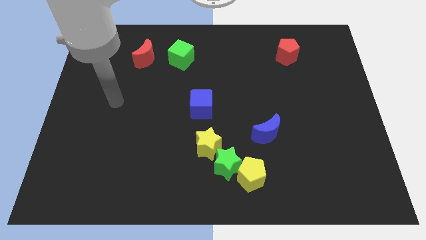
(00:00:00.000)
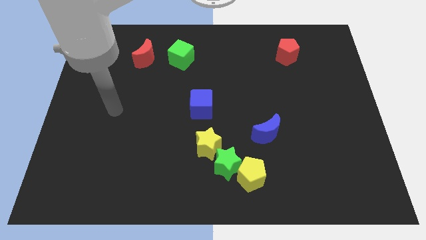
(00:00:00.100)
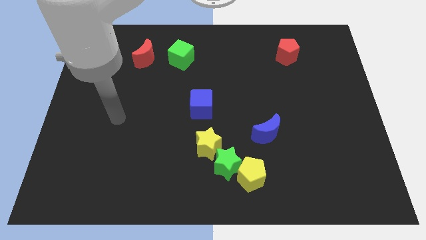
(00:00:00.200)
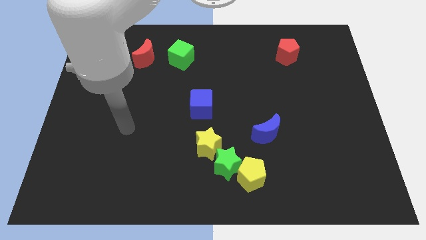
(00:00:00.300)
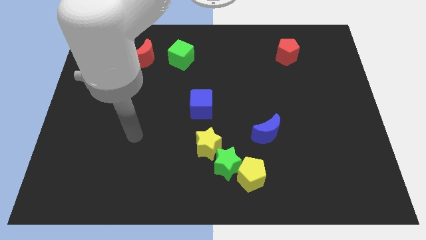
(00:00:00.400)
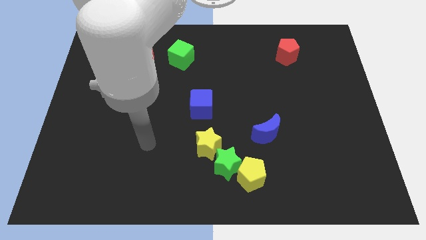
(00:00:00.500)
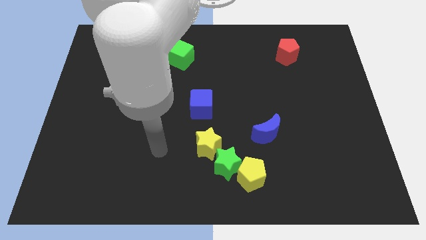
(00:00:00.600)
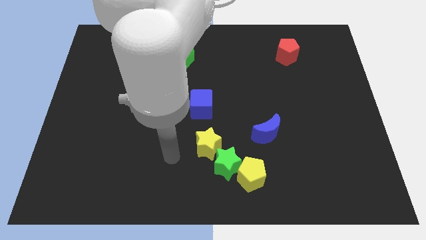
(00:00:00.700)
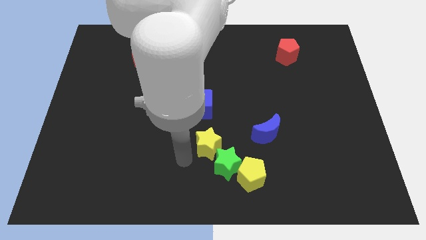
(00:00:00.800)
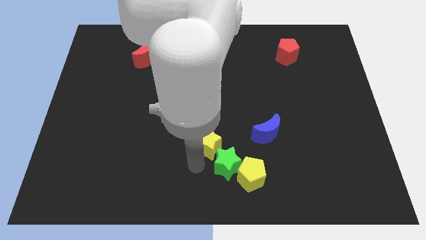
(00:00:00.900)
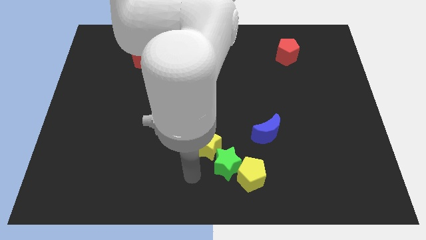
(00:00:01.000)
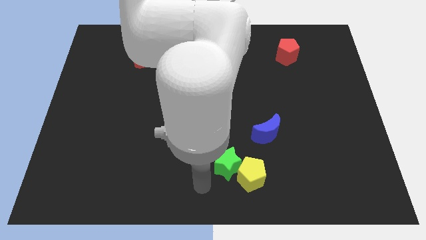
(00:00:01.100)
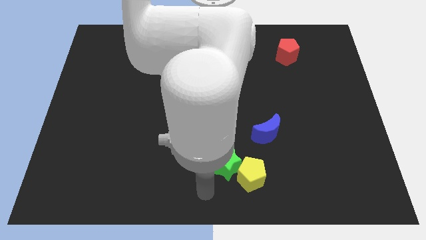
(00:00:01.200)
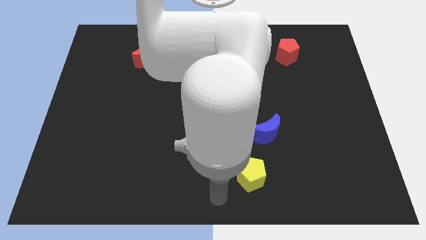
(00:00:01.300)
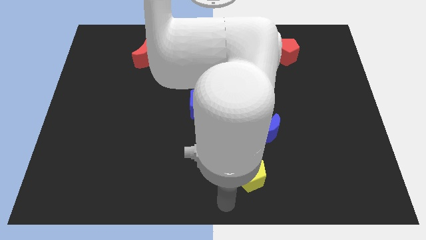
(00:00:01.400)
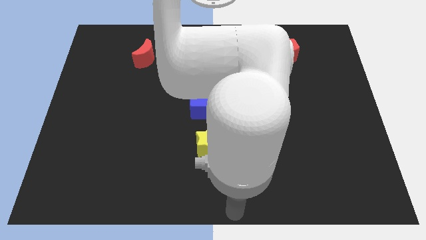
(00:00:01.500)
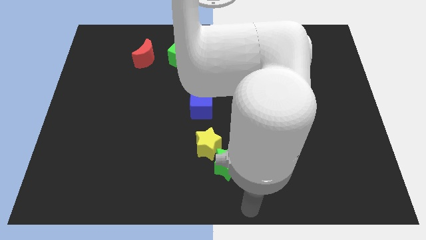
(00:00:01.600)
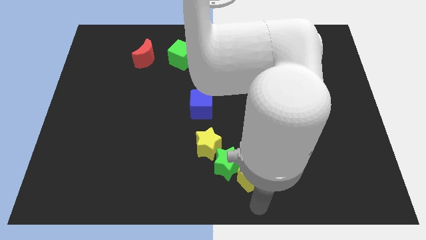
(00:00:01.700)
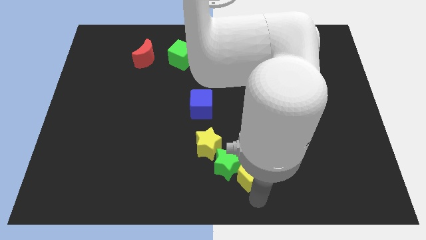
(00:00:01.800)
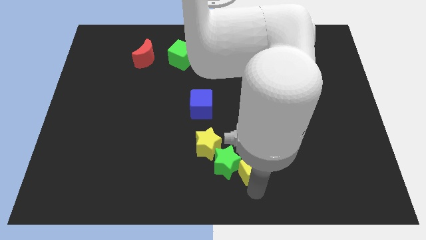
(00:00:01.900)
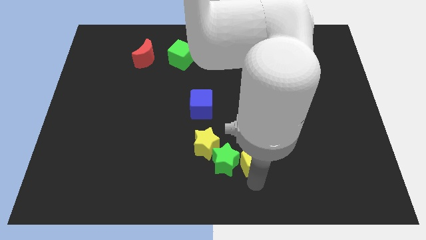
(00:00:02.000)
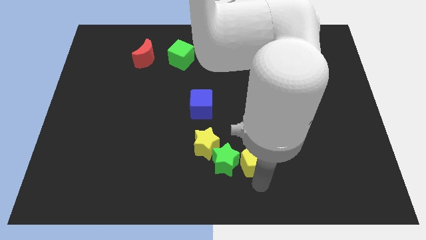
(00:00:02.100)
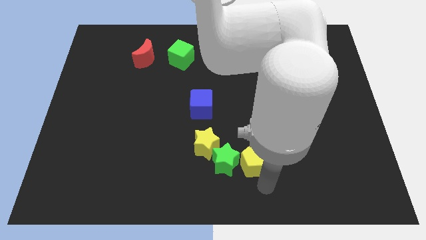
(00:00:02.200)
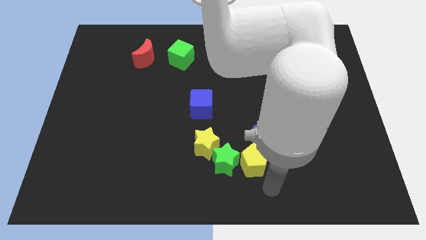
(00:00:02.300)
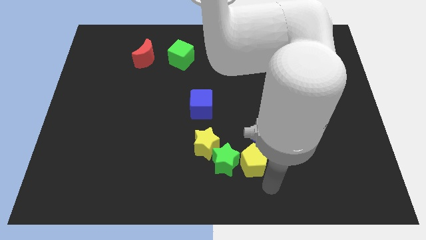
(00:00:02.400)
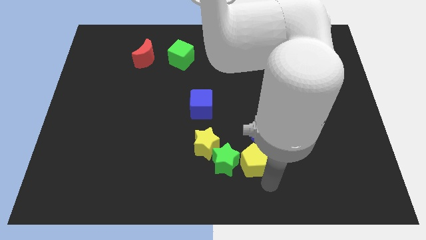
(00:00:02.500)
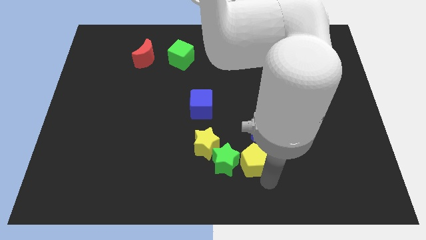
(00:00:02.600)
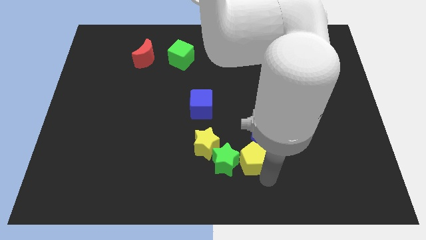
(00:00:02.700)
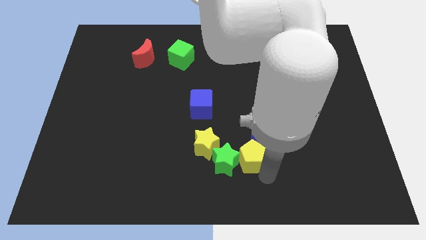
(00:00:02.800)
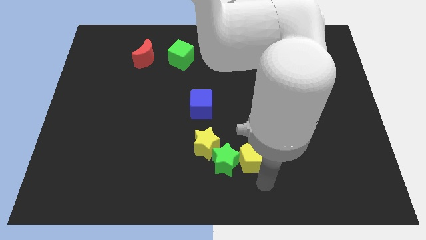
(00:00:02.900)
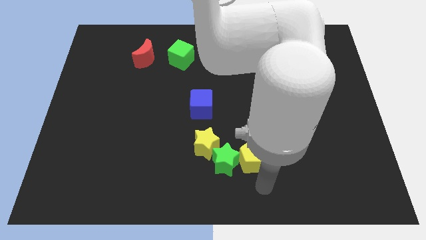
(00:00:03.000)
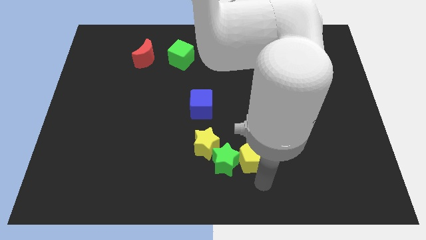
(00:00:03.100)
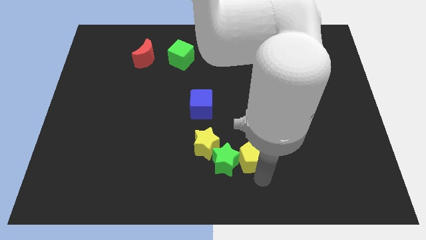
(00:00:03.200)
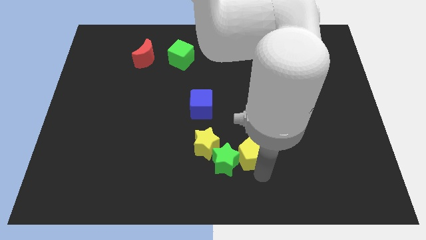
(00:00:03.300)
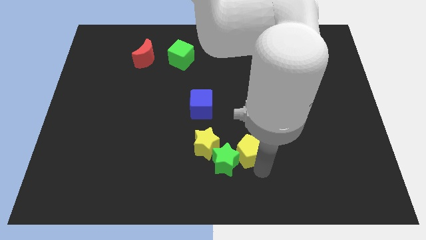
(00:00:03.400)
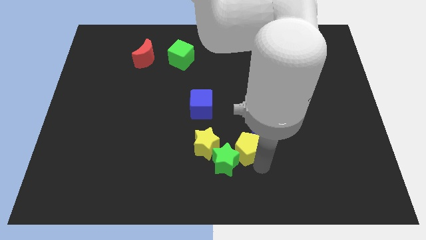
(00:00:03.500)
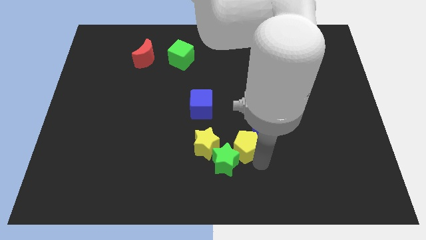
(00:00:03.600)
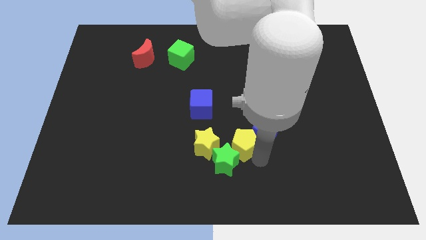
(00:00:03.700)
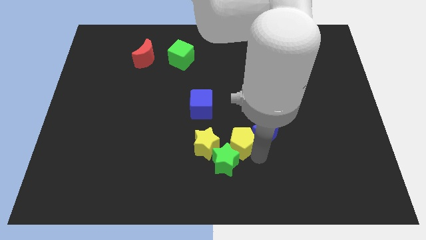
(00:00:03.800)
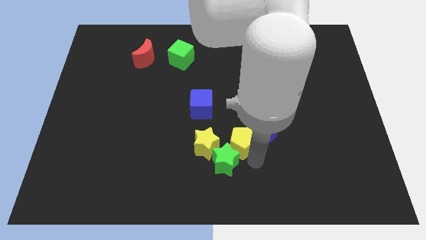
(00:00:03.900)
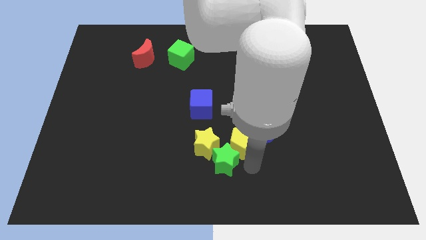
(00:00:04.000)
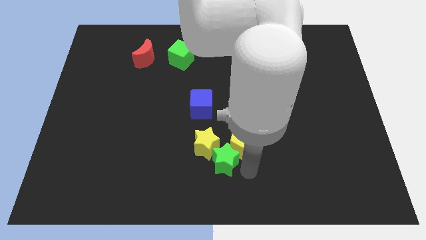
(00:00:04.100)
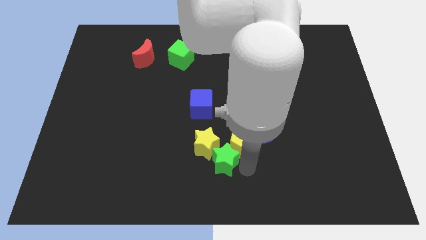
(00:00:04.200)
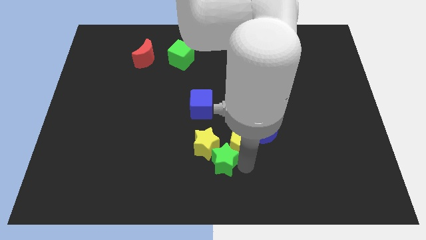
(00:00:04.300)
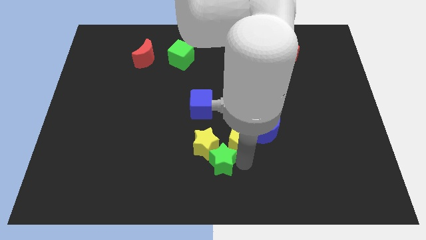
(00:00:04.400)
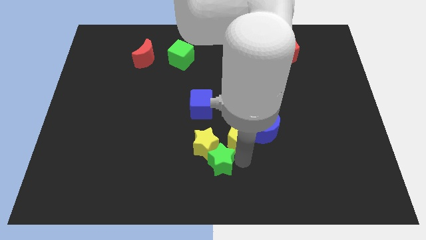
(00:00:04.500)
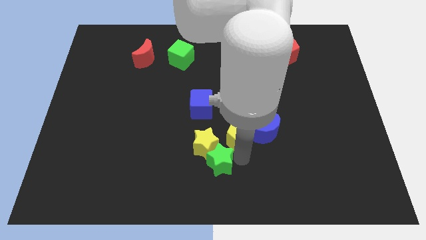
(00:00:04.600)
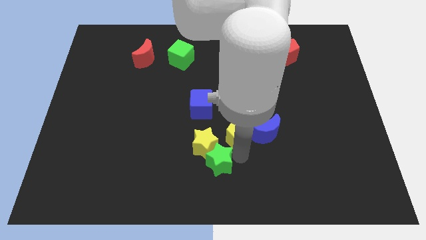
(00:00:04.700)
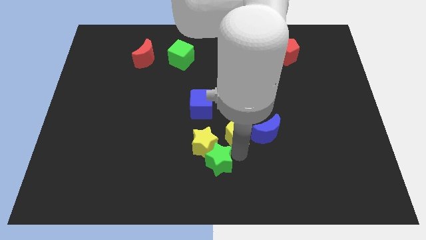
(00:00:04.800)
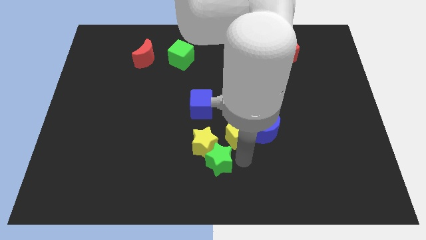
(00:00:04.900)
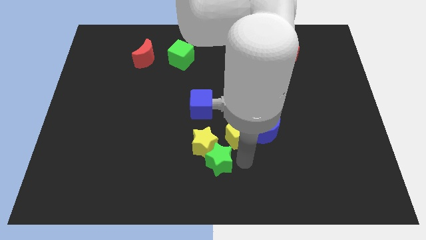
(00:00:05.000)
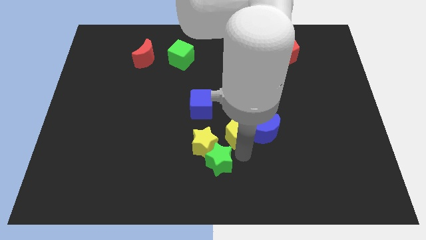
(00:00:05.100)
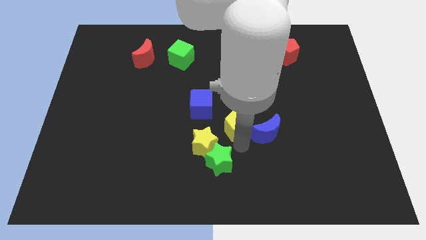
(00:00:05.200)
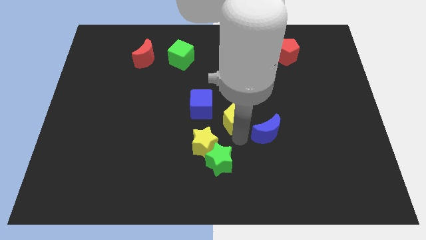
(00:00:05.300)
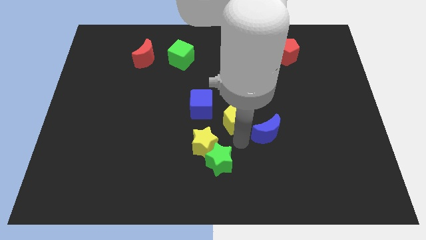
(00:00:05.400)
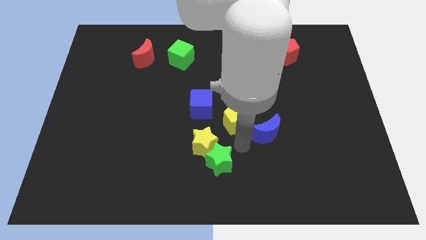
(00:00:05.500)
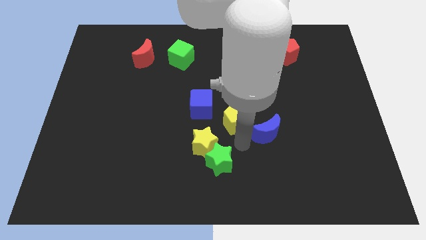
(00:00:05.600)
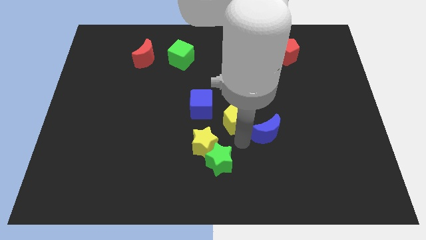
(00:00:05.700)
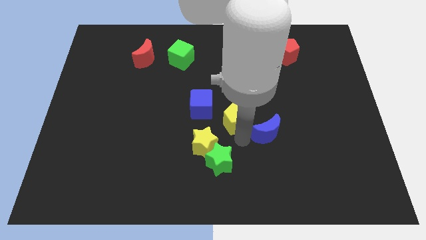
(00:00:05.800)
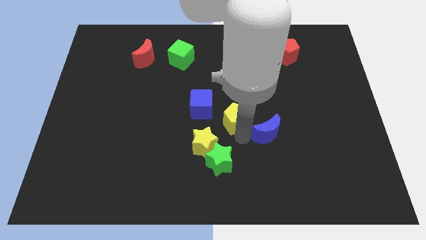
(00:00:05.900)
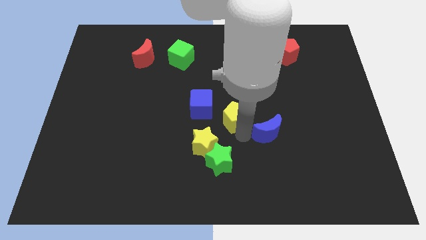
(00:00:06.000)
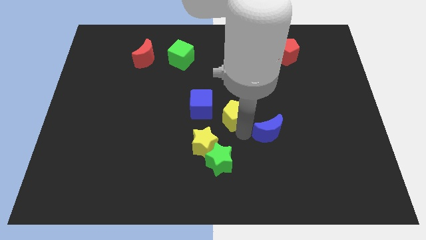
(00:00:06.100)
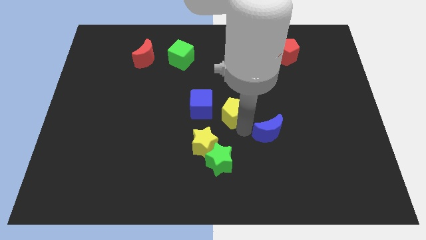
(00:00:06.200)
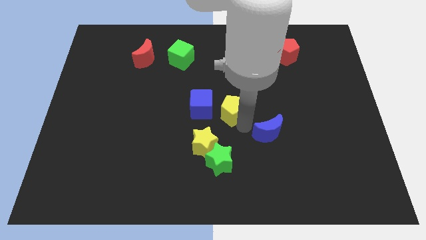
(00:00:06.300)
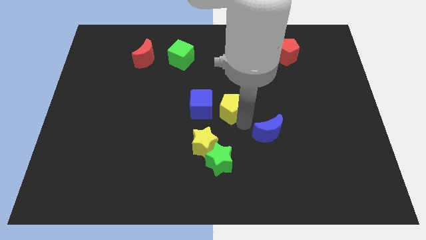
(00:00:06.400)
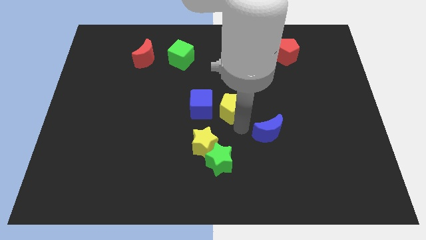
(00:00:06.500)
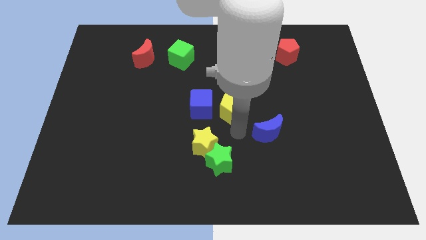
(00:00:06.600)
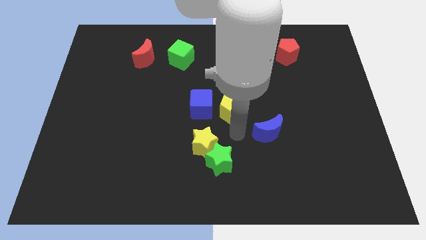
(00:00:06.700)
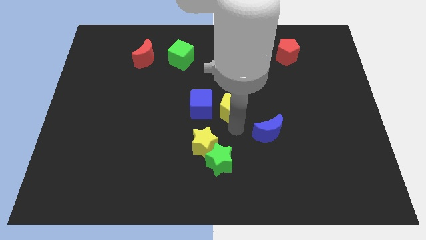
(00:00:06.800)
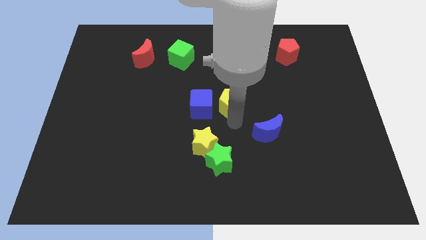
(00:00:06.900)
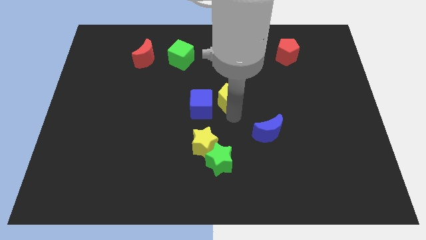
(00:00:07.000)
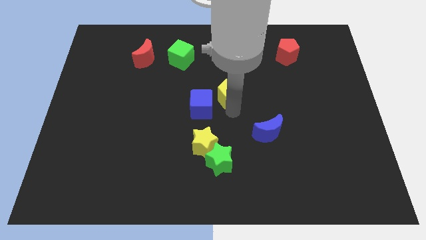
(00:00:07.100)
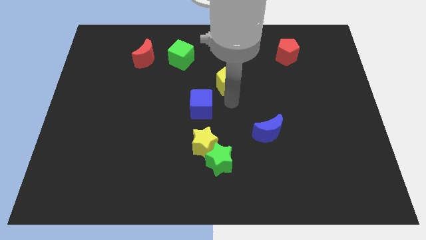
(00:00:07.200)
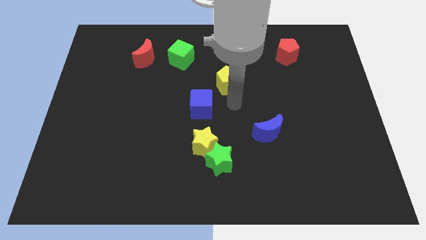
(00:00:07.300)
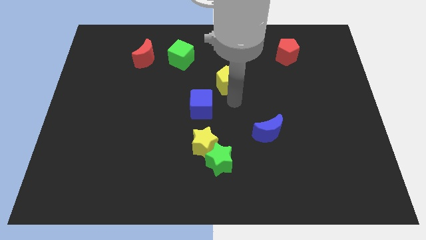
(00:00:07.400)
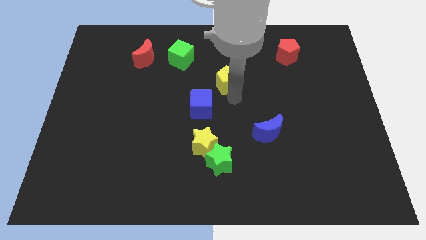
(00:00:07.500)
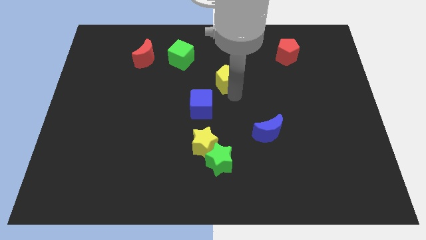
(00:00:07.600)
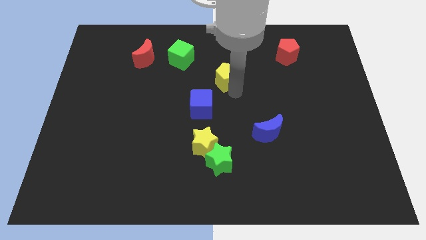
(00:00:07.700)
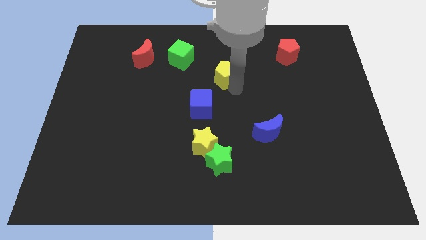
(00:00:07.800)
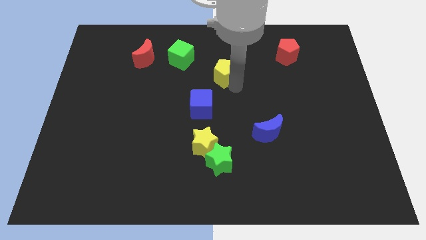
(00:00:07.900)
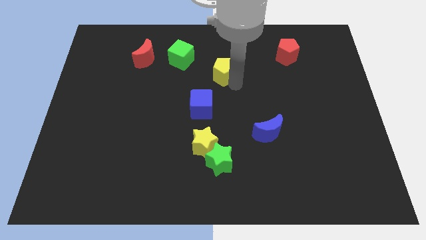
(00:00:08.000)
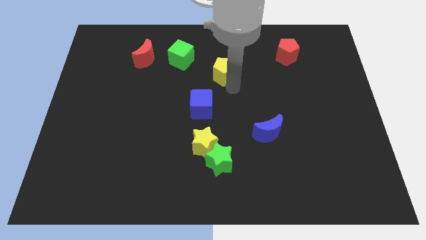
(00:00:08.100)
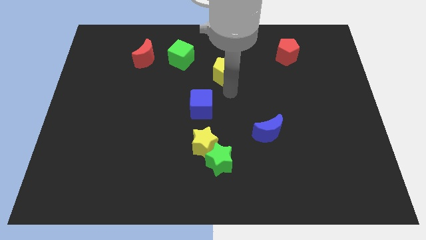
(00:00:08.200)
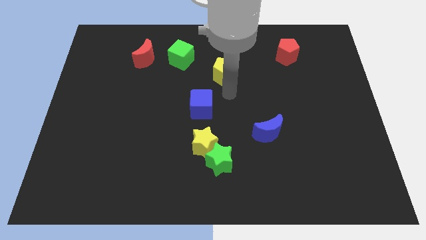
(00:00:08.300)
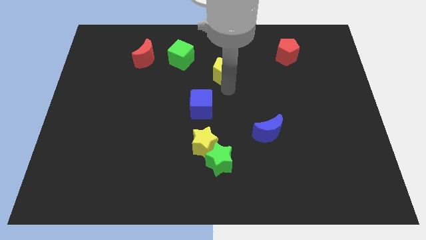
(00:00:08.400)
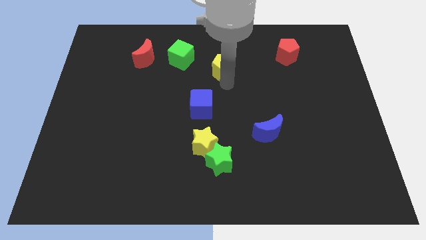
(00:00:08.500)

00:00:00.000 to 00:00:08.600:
put the yellow pentagon to the right side of the green cube
